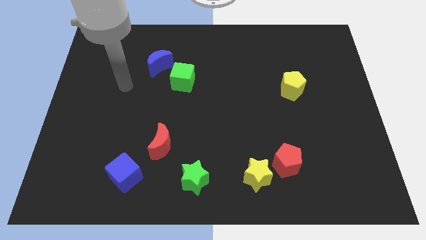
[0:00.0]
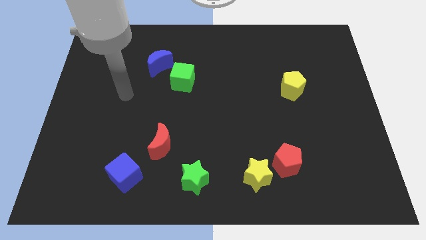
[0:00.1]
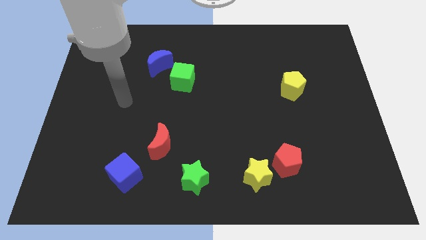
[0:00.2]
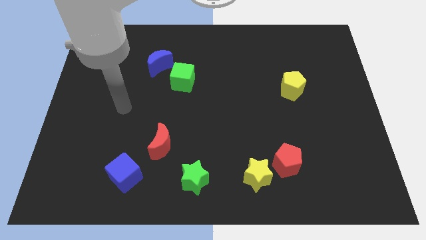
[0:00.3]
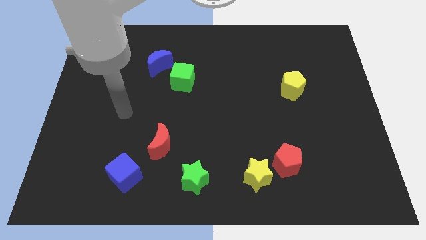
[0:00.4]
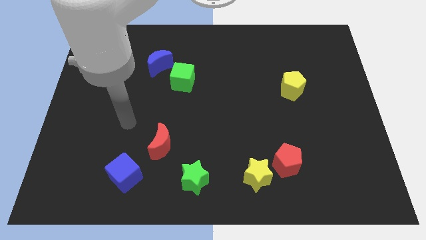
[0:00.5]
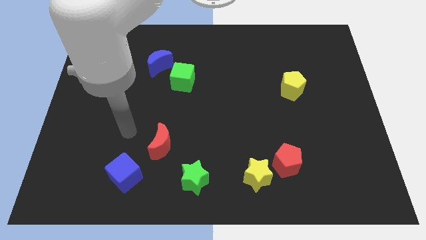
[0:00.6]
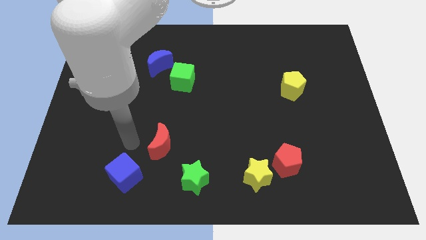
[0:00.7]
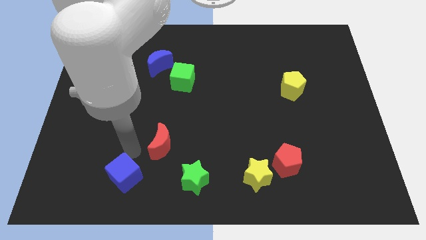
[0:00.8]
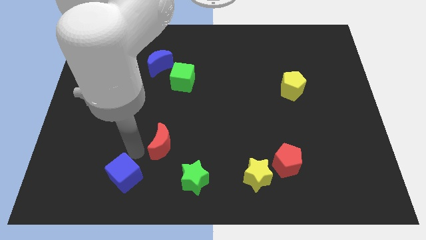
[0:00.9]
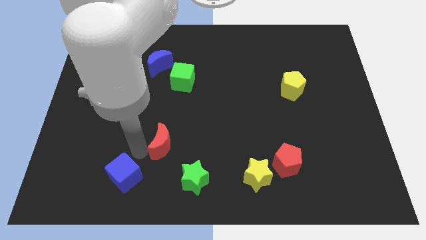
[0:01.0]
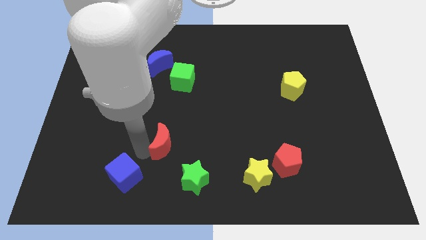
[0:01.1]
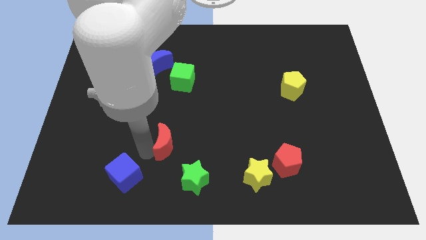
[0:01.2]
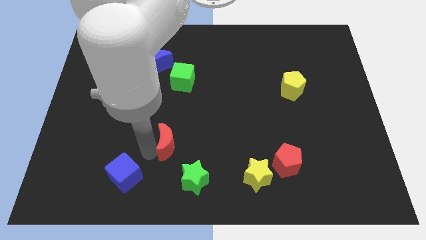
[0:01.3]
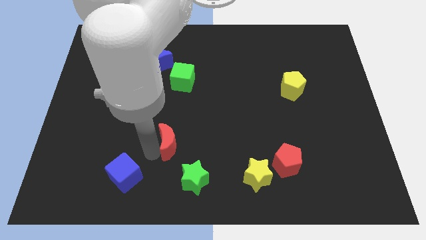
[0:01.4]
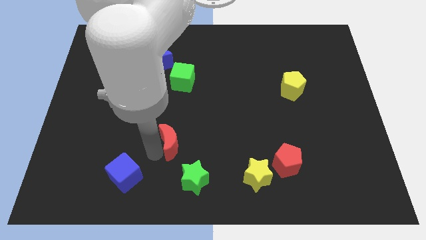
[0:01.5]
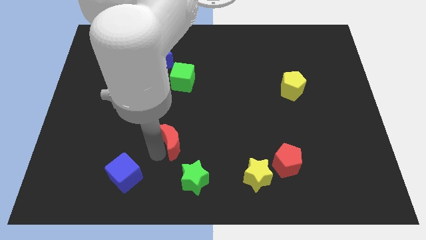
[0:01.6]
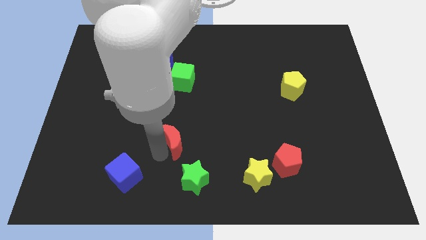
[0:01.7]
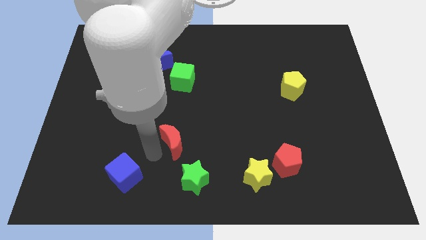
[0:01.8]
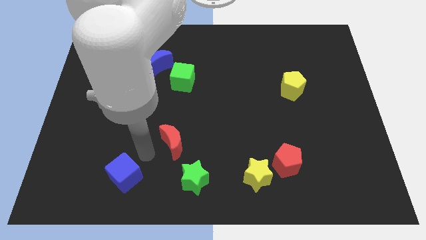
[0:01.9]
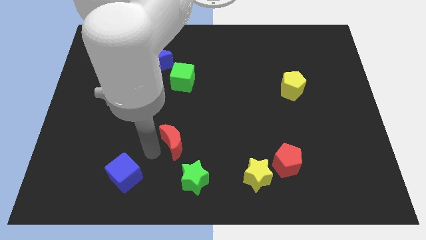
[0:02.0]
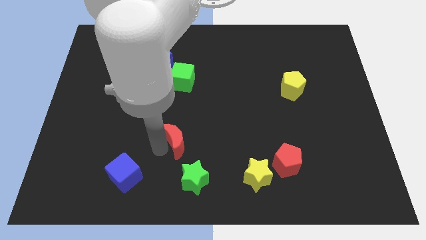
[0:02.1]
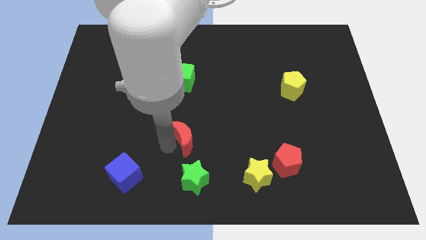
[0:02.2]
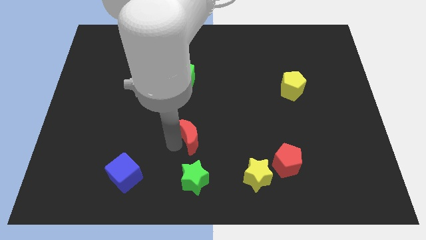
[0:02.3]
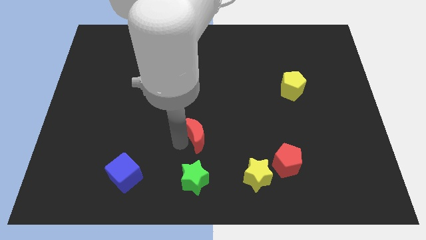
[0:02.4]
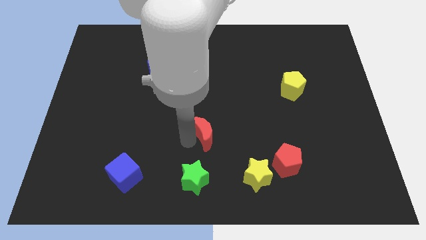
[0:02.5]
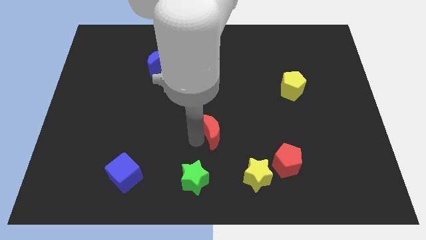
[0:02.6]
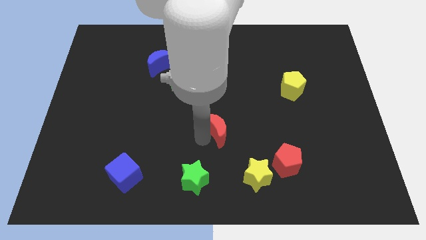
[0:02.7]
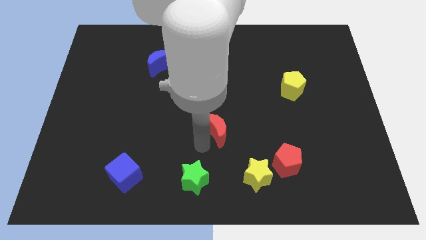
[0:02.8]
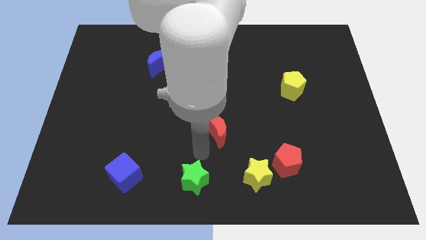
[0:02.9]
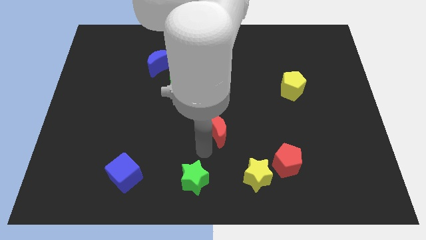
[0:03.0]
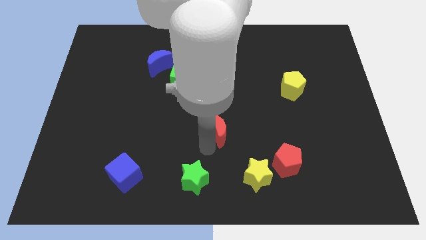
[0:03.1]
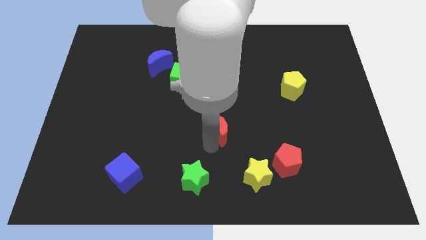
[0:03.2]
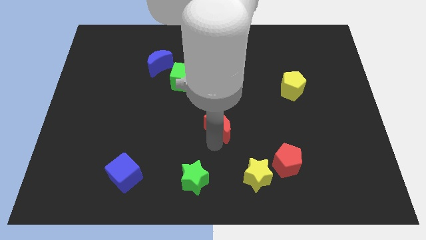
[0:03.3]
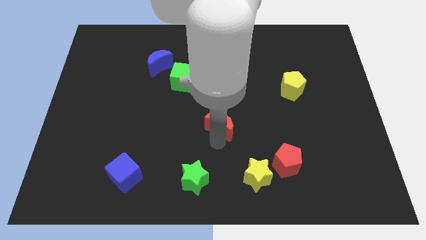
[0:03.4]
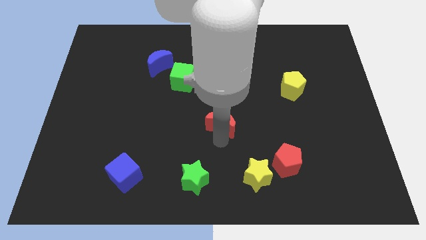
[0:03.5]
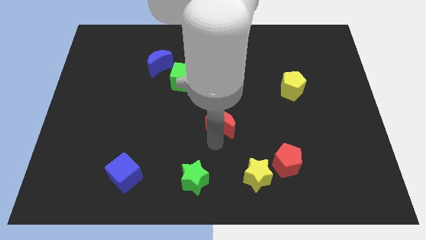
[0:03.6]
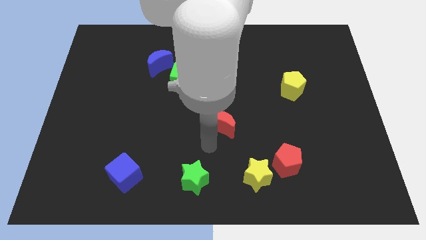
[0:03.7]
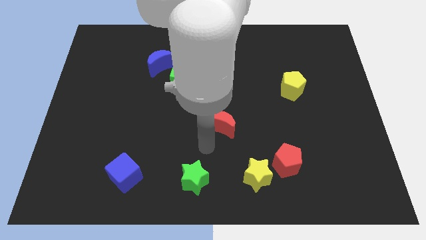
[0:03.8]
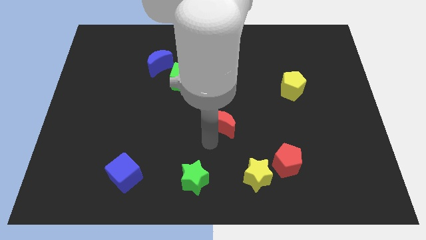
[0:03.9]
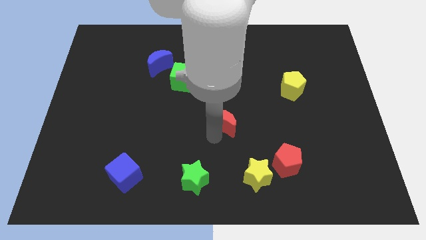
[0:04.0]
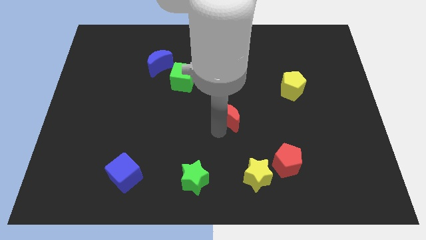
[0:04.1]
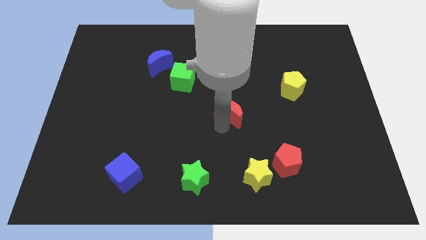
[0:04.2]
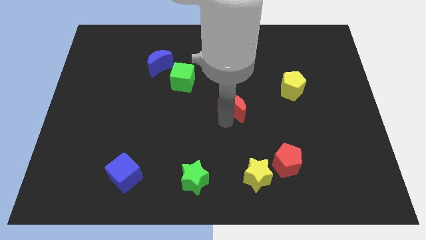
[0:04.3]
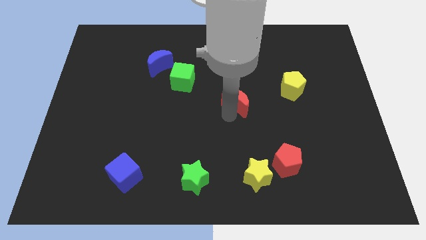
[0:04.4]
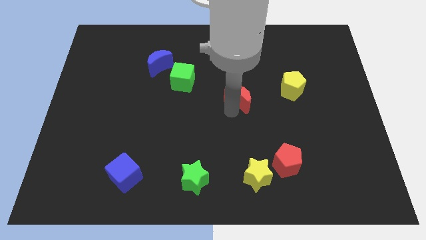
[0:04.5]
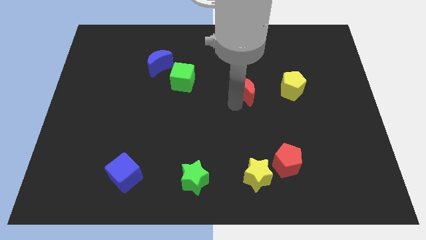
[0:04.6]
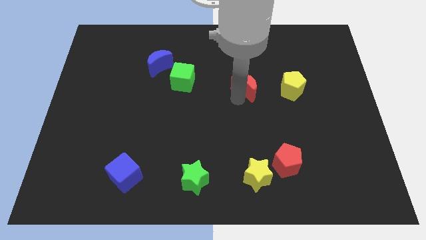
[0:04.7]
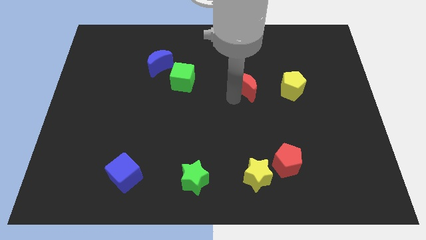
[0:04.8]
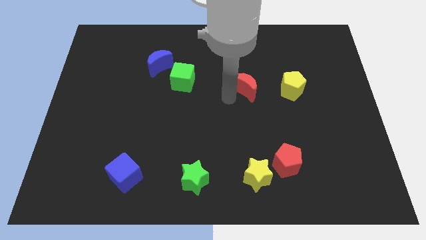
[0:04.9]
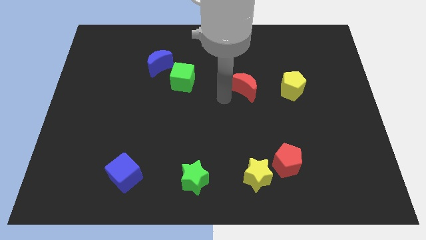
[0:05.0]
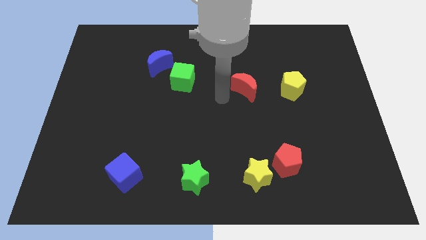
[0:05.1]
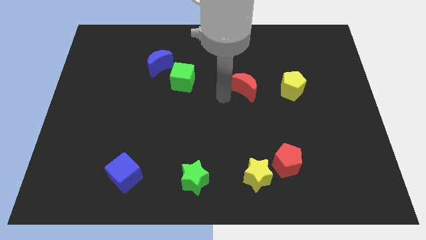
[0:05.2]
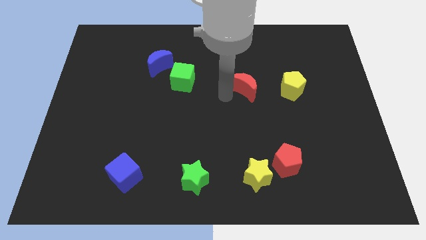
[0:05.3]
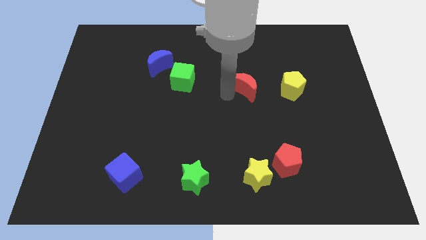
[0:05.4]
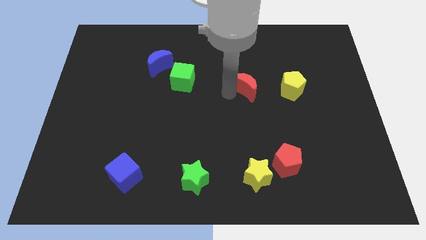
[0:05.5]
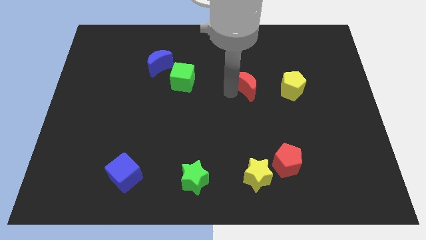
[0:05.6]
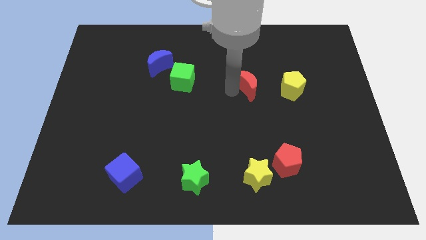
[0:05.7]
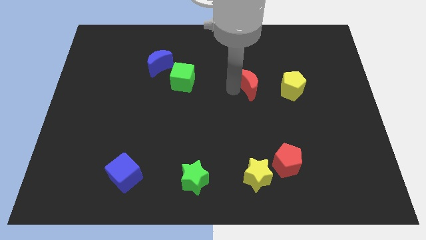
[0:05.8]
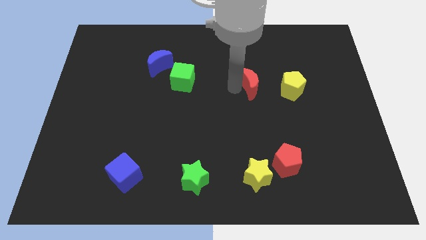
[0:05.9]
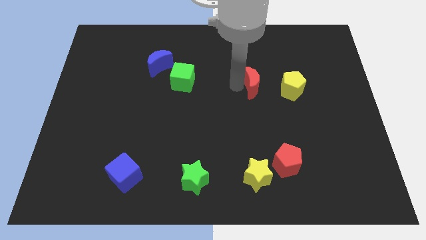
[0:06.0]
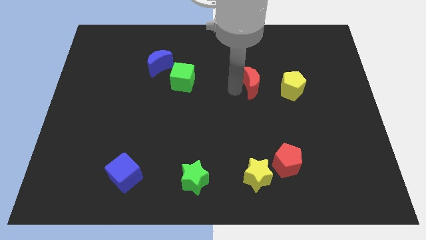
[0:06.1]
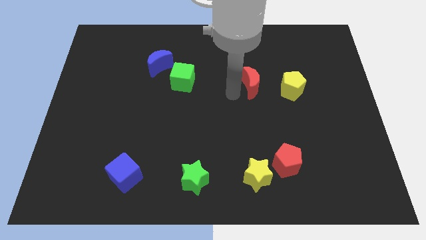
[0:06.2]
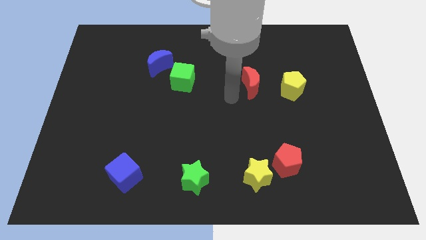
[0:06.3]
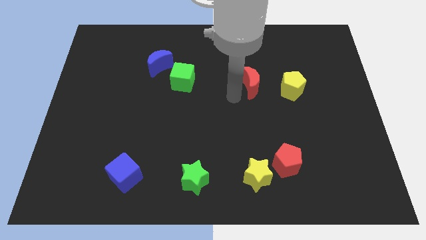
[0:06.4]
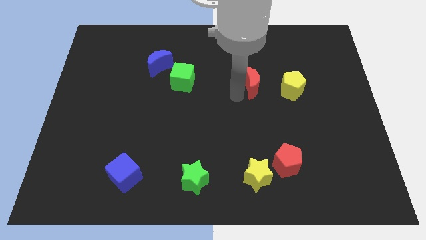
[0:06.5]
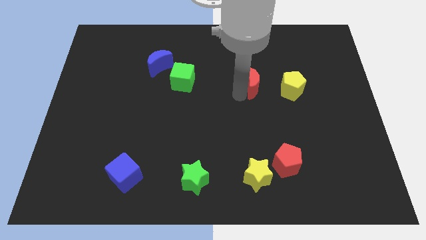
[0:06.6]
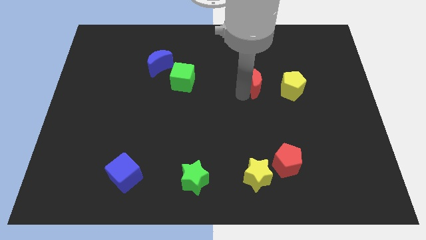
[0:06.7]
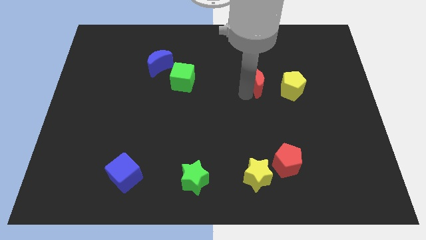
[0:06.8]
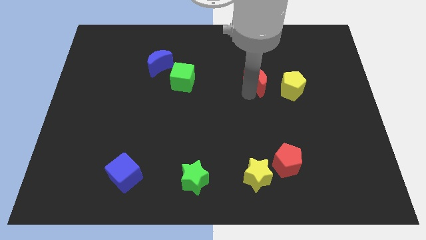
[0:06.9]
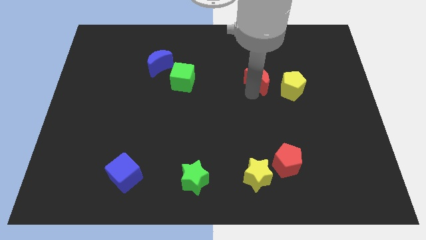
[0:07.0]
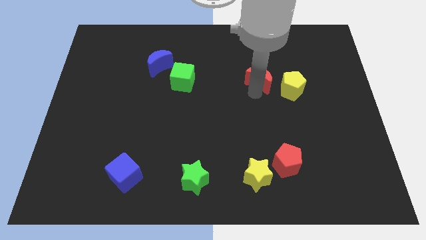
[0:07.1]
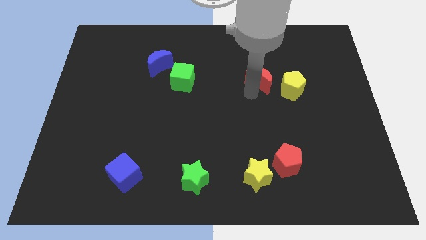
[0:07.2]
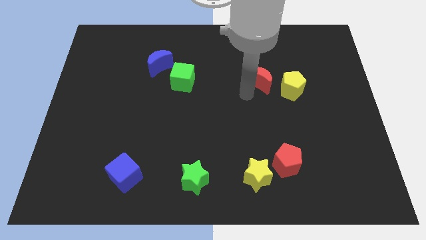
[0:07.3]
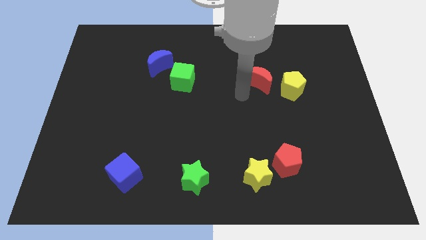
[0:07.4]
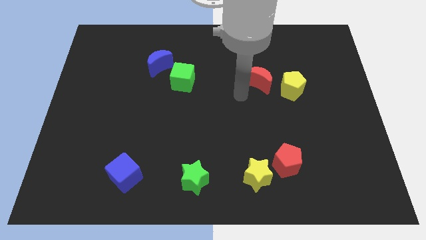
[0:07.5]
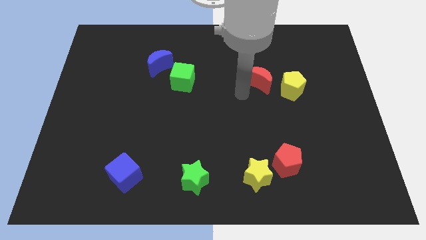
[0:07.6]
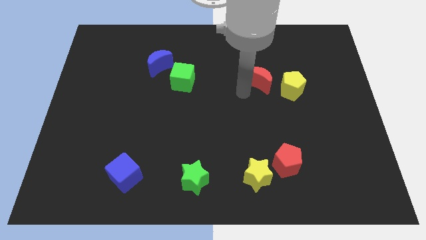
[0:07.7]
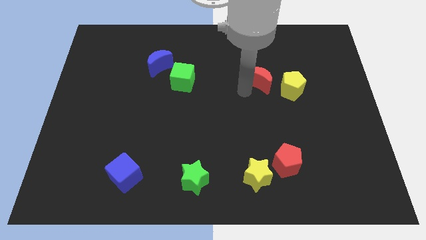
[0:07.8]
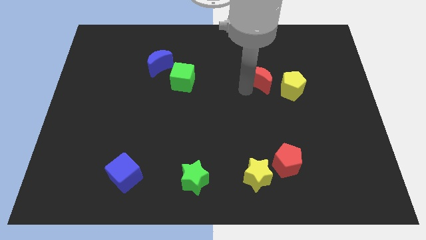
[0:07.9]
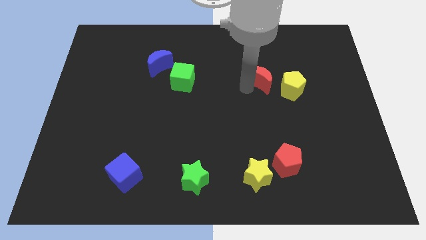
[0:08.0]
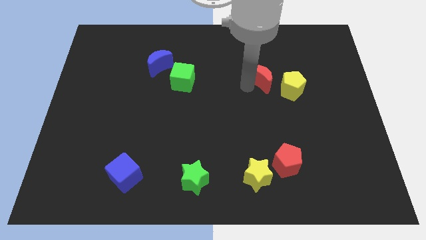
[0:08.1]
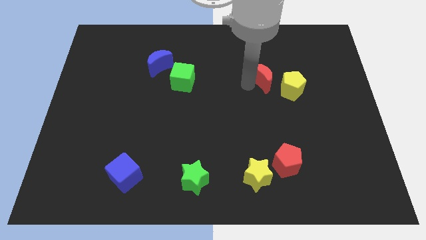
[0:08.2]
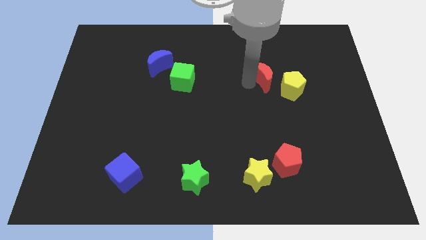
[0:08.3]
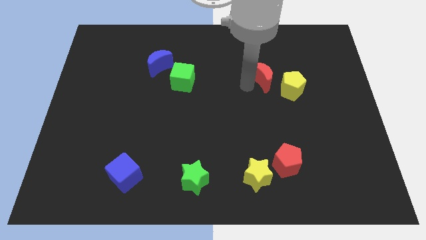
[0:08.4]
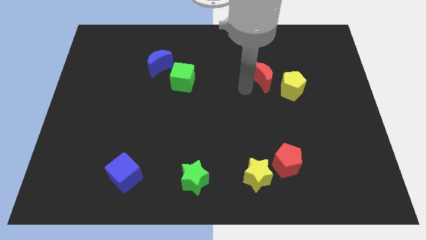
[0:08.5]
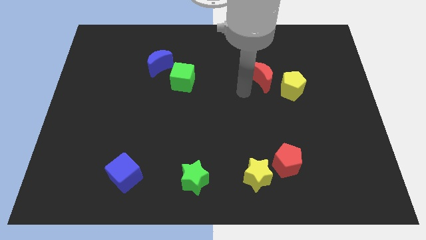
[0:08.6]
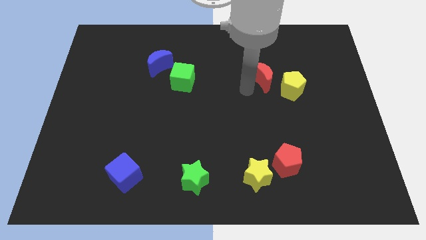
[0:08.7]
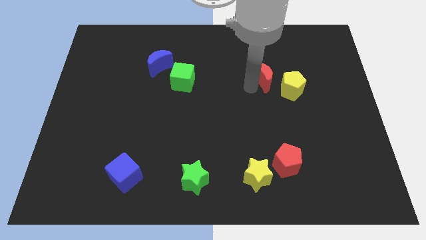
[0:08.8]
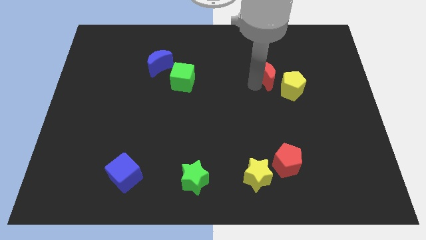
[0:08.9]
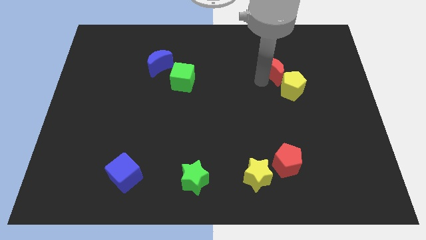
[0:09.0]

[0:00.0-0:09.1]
slide the red moon above the yellow pentagon
